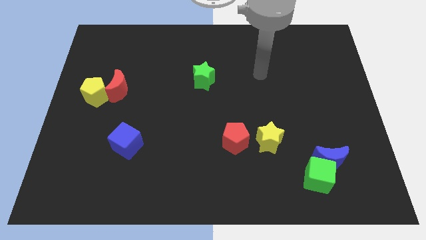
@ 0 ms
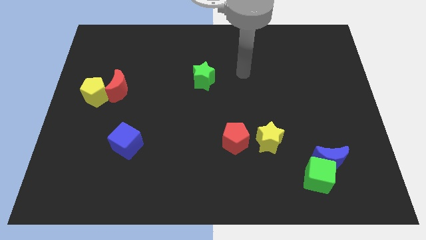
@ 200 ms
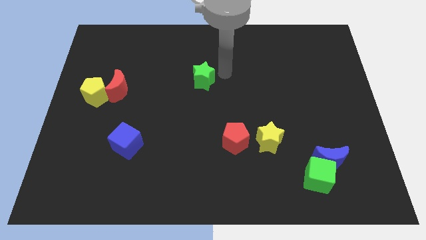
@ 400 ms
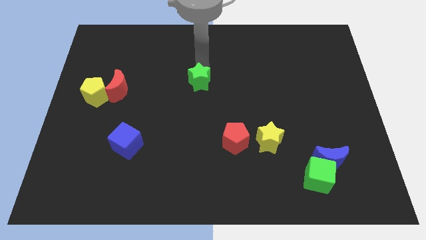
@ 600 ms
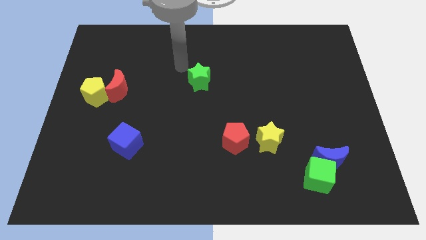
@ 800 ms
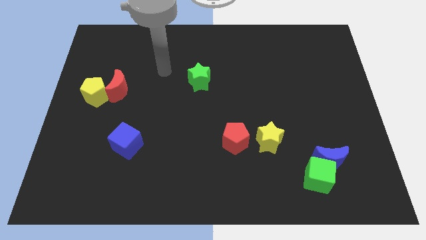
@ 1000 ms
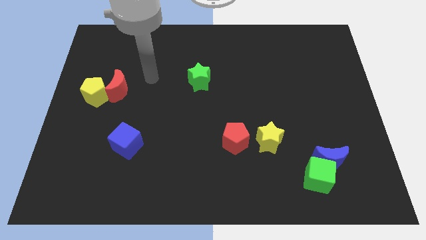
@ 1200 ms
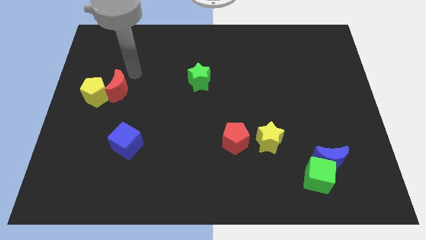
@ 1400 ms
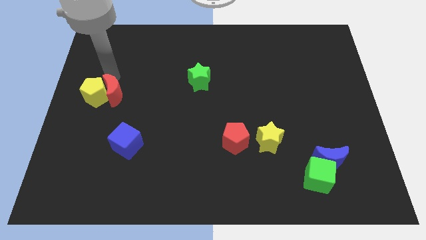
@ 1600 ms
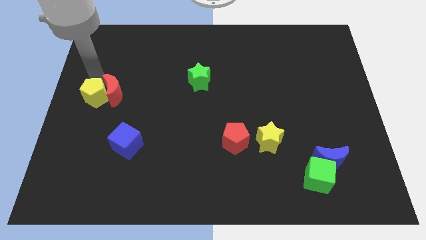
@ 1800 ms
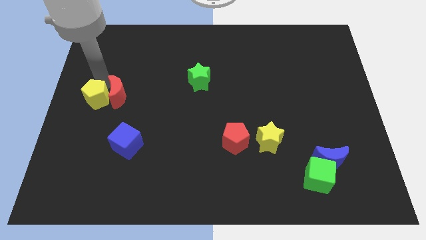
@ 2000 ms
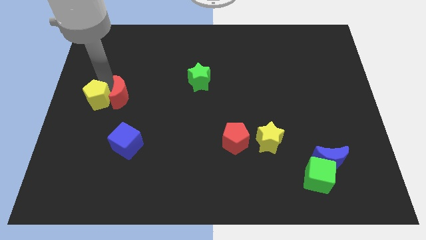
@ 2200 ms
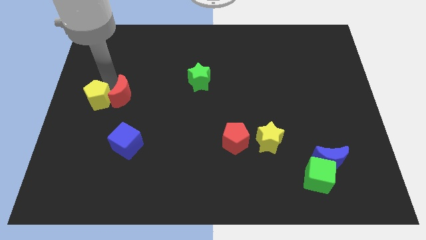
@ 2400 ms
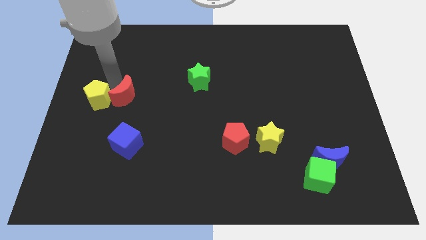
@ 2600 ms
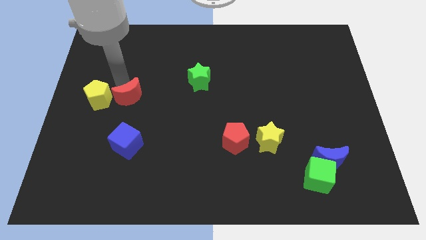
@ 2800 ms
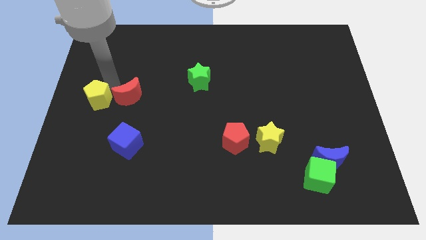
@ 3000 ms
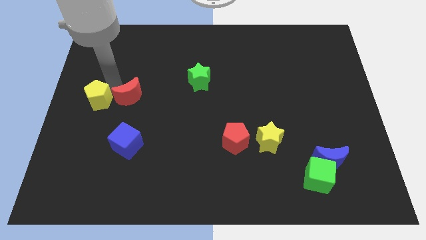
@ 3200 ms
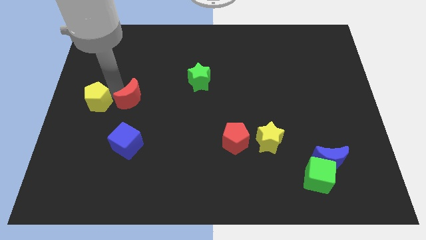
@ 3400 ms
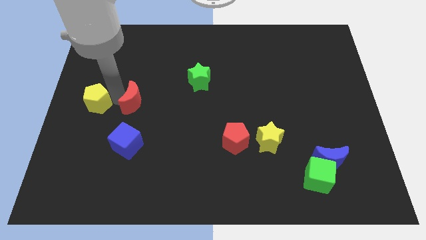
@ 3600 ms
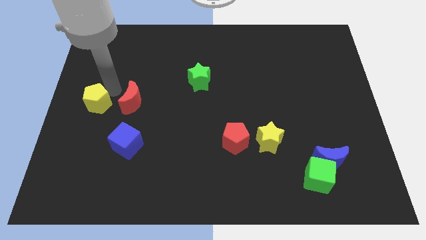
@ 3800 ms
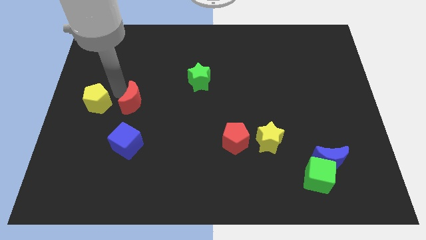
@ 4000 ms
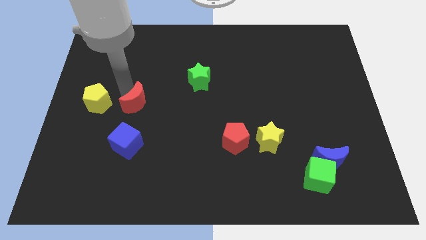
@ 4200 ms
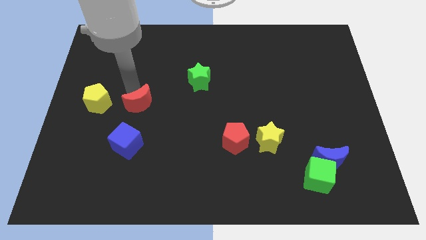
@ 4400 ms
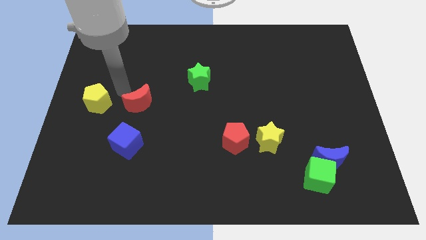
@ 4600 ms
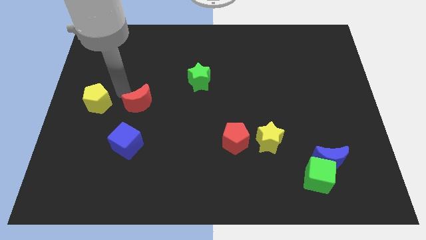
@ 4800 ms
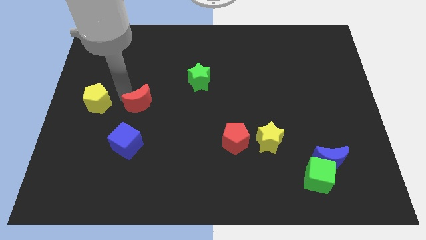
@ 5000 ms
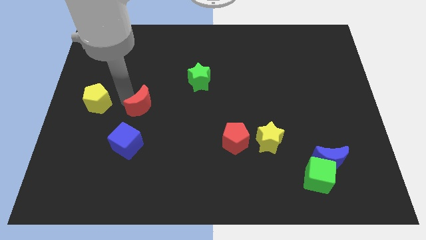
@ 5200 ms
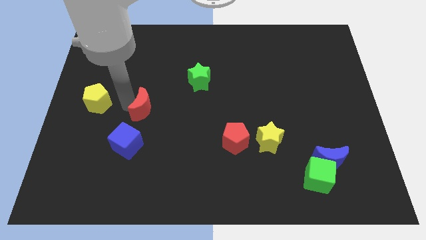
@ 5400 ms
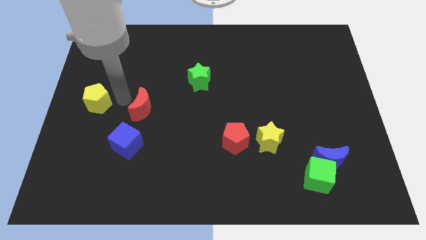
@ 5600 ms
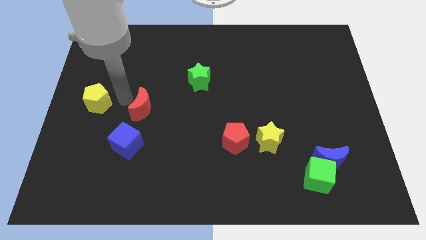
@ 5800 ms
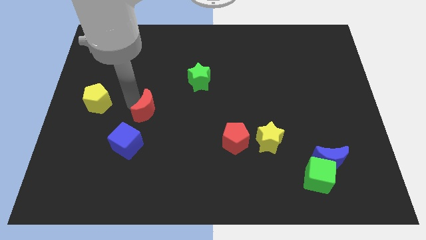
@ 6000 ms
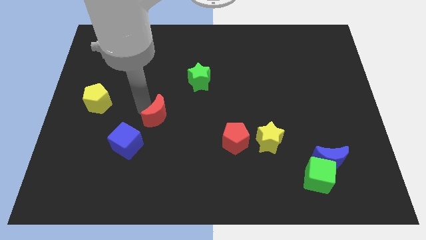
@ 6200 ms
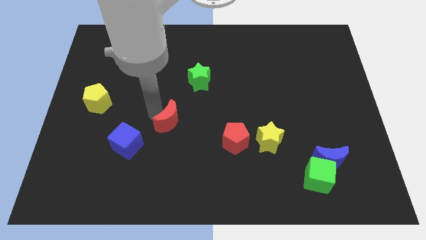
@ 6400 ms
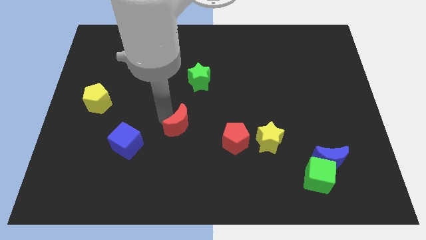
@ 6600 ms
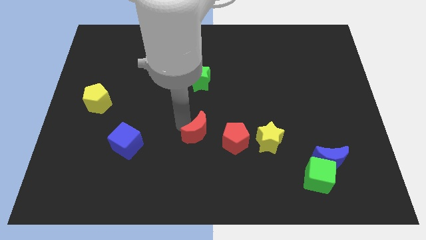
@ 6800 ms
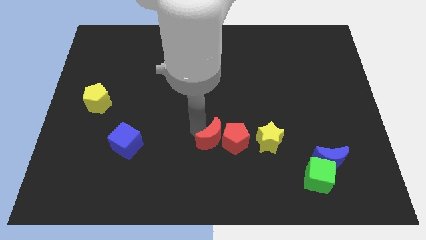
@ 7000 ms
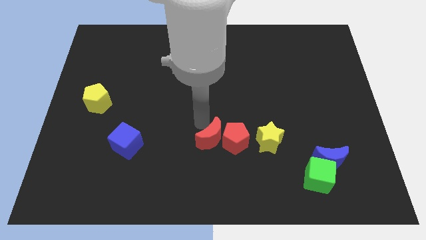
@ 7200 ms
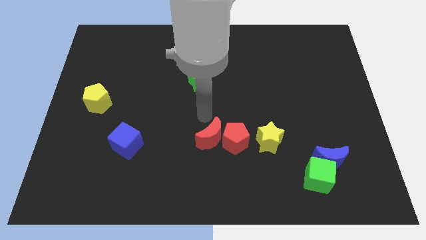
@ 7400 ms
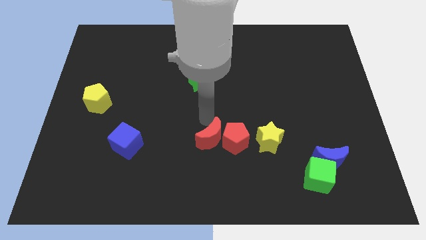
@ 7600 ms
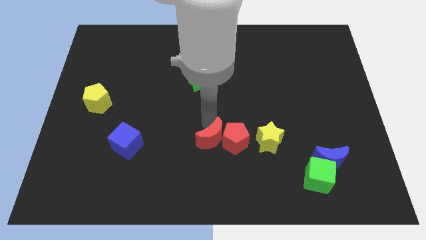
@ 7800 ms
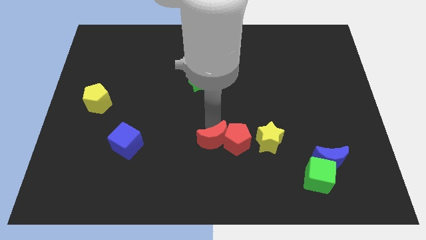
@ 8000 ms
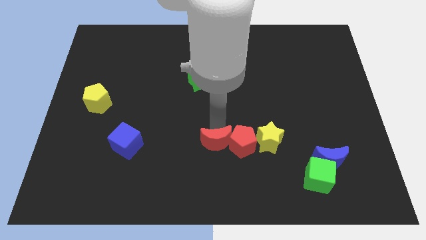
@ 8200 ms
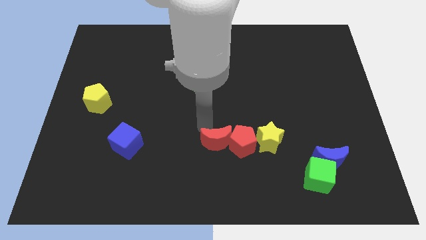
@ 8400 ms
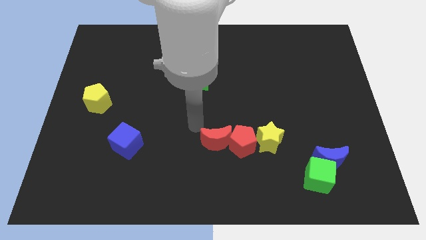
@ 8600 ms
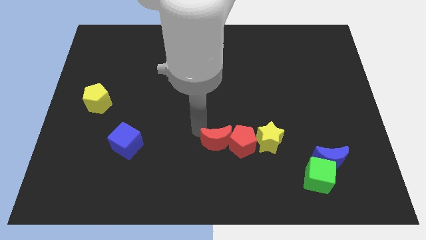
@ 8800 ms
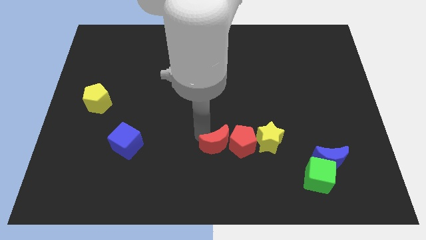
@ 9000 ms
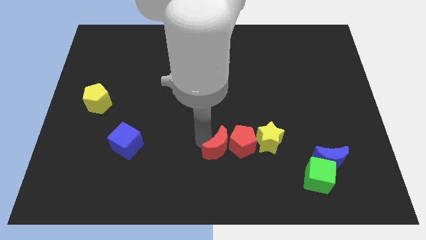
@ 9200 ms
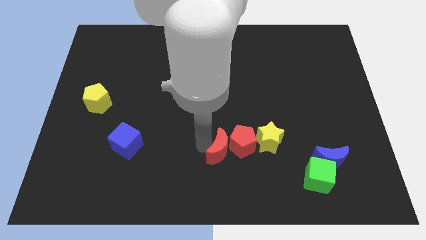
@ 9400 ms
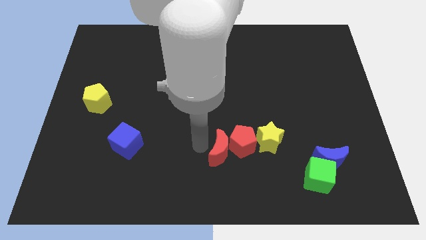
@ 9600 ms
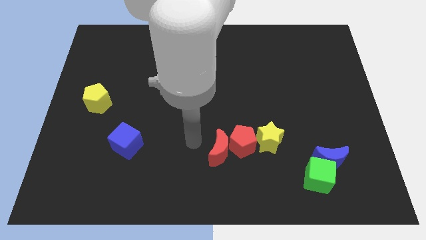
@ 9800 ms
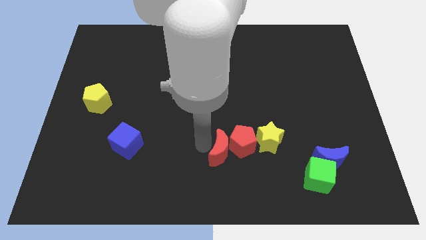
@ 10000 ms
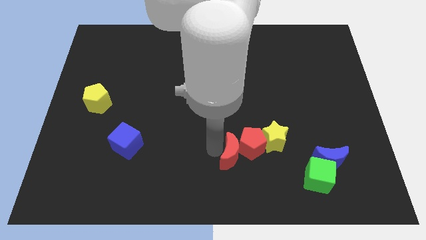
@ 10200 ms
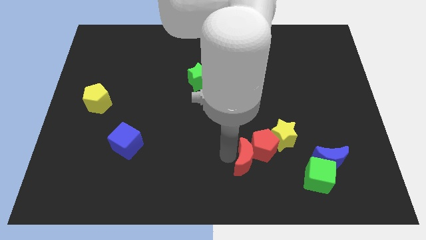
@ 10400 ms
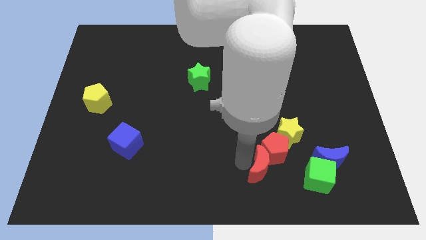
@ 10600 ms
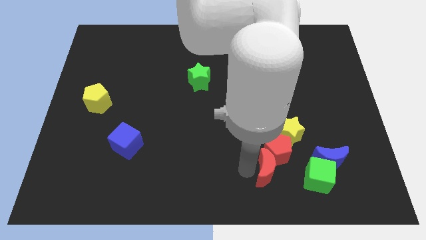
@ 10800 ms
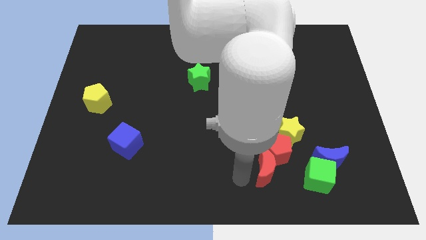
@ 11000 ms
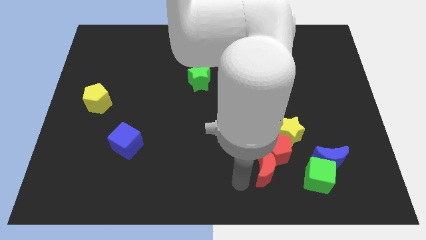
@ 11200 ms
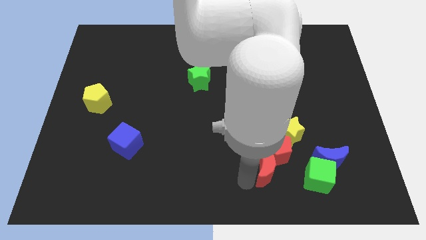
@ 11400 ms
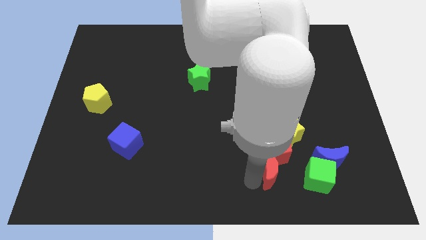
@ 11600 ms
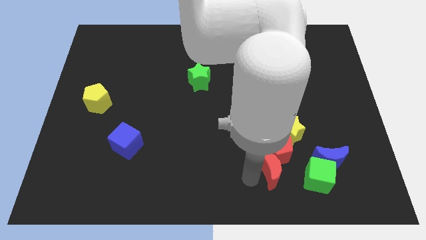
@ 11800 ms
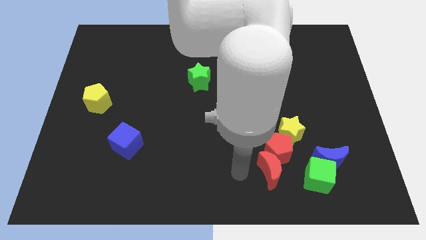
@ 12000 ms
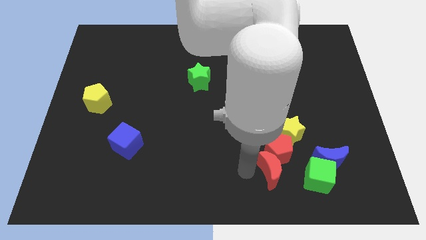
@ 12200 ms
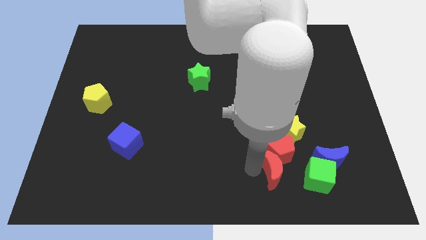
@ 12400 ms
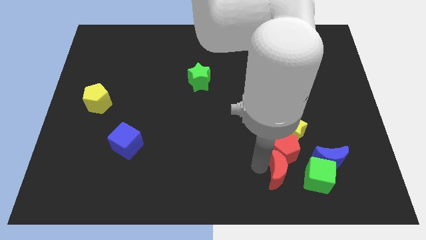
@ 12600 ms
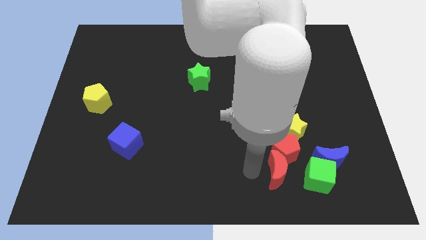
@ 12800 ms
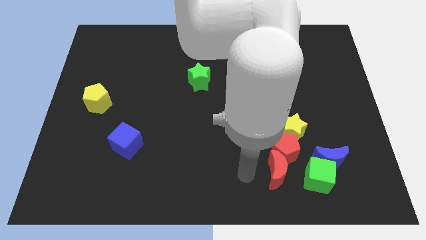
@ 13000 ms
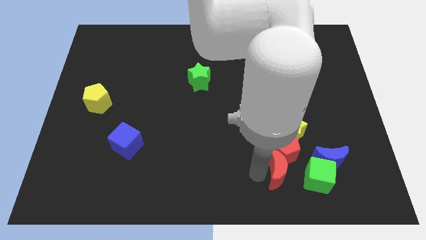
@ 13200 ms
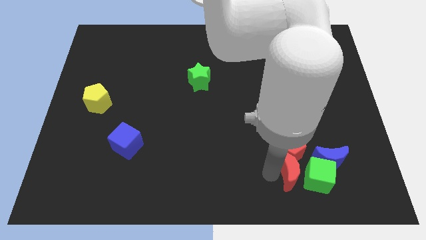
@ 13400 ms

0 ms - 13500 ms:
put the red moon towards the green cube
